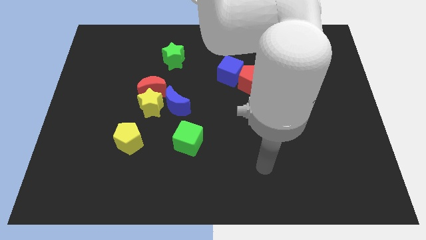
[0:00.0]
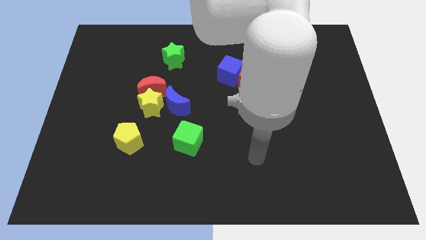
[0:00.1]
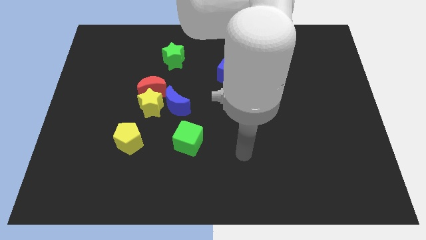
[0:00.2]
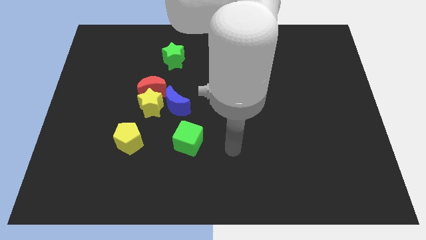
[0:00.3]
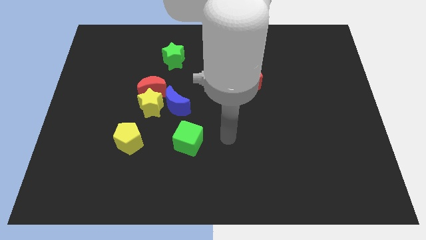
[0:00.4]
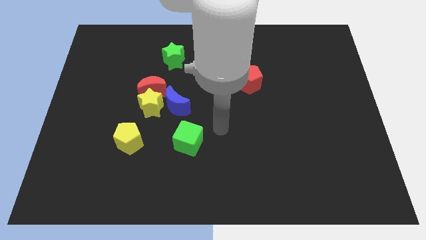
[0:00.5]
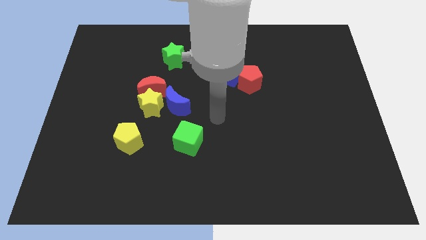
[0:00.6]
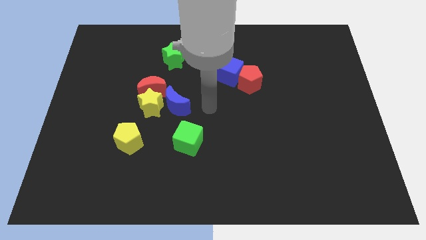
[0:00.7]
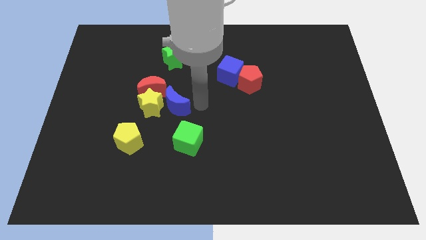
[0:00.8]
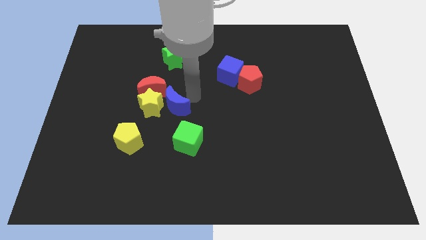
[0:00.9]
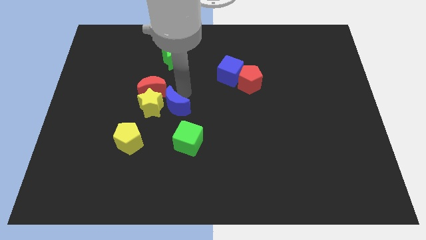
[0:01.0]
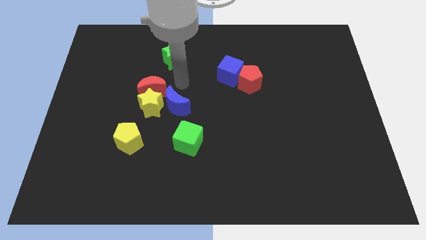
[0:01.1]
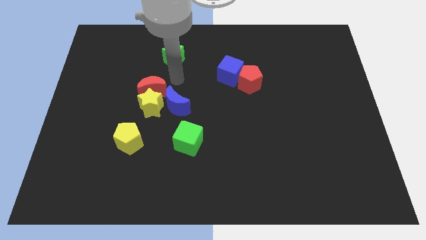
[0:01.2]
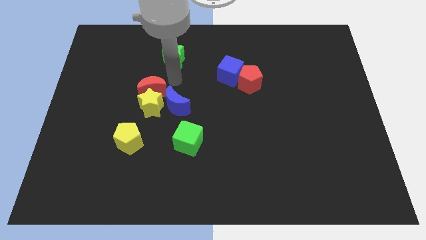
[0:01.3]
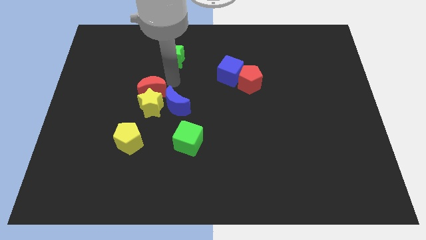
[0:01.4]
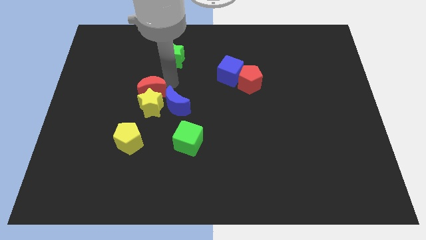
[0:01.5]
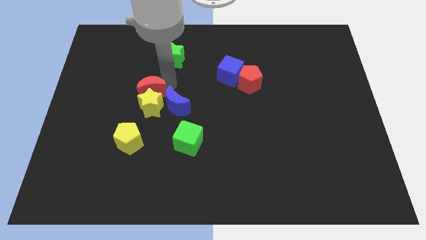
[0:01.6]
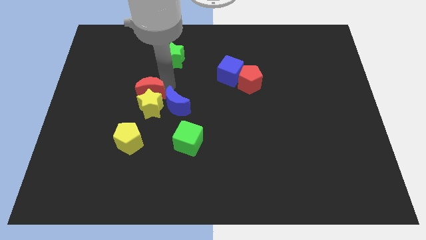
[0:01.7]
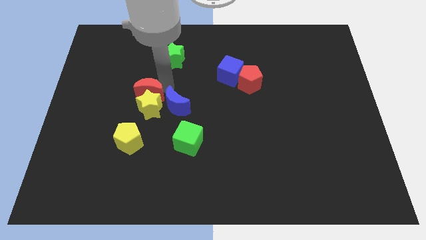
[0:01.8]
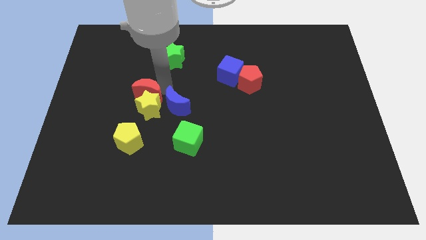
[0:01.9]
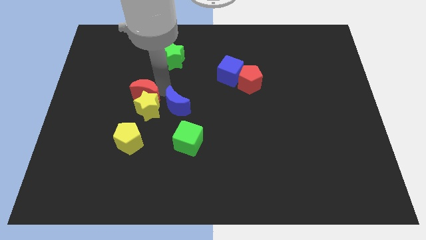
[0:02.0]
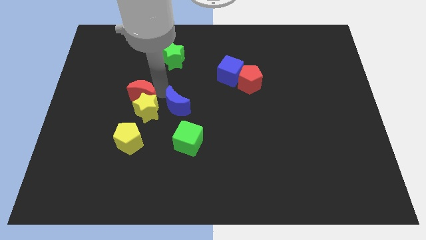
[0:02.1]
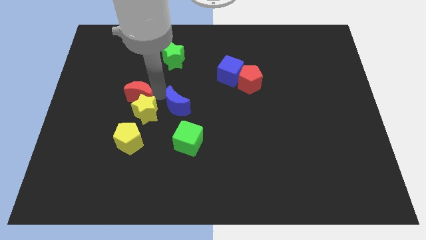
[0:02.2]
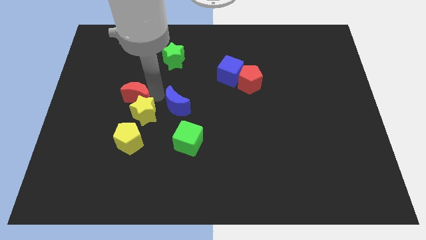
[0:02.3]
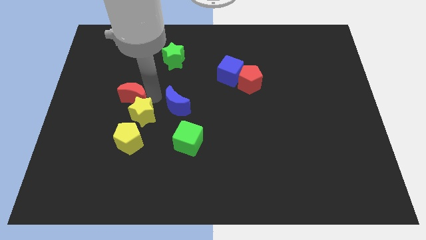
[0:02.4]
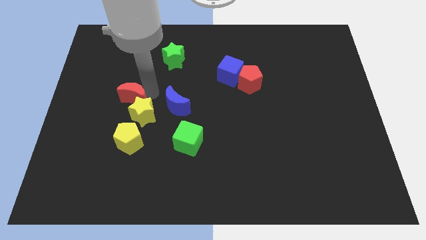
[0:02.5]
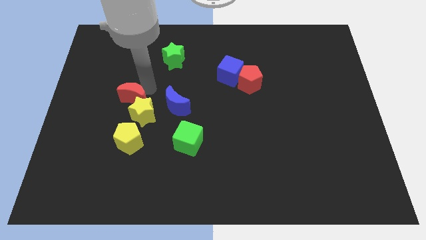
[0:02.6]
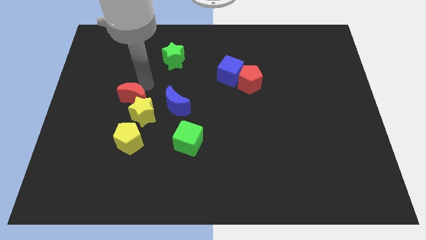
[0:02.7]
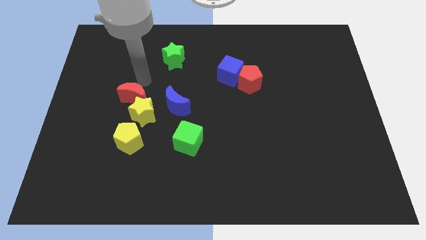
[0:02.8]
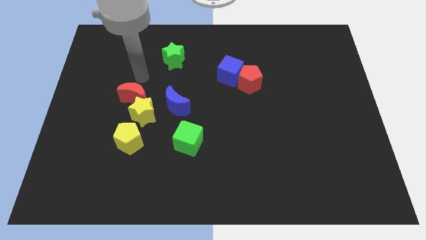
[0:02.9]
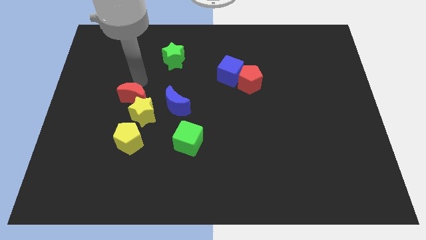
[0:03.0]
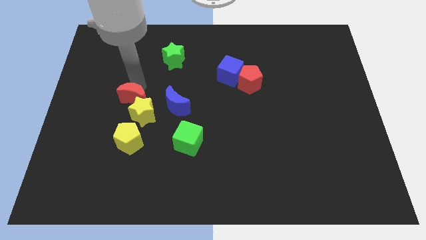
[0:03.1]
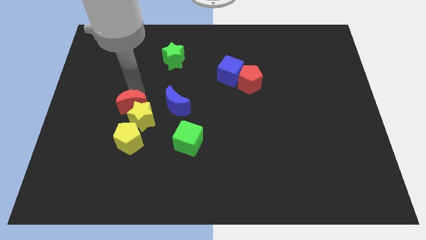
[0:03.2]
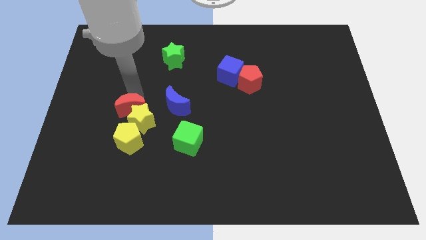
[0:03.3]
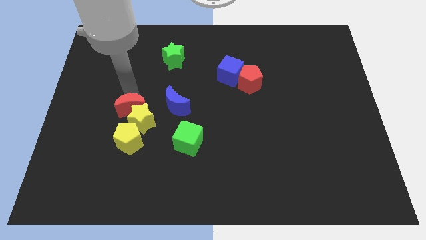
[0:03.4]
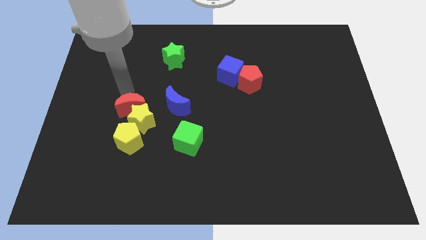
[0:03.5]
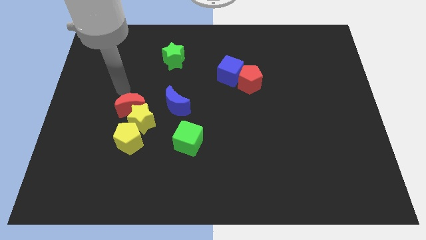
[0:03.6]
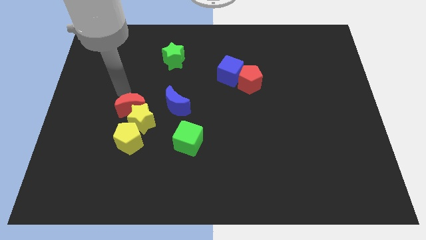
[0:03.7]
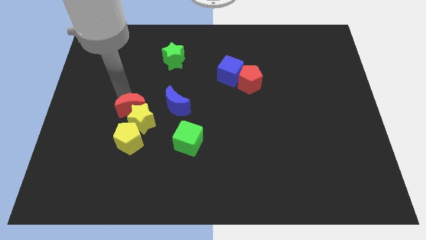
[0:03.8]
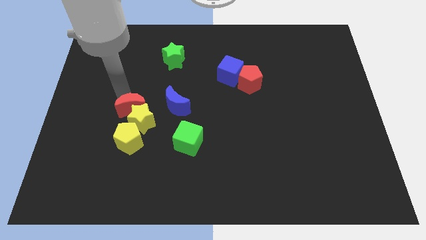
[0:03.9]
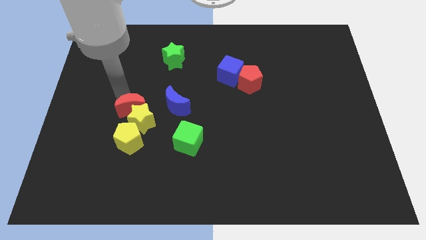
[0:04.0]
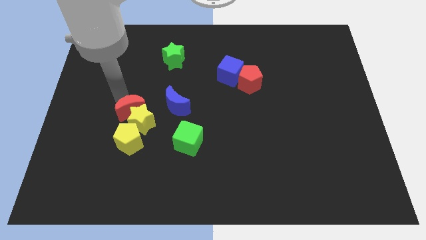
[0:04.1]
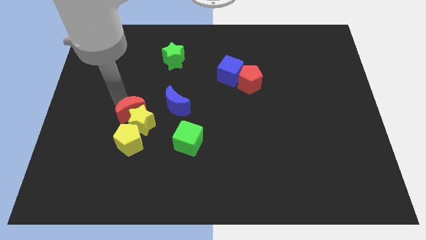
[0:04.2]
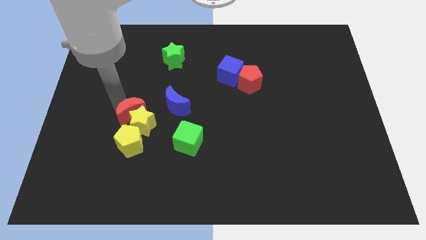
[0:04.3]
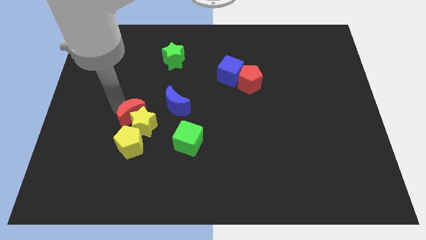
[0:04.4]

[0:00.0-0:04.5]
slightly move the red moon downwards

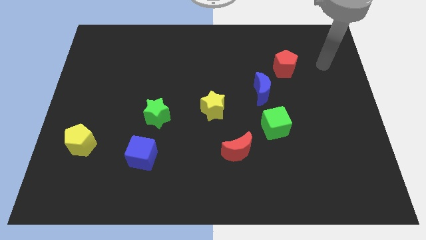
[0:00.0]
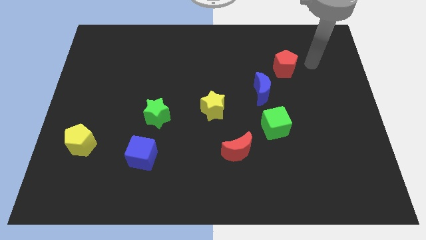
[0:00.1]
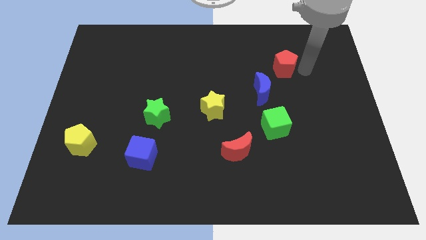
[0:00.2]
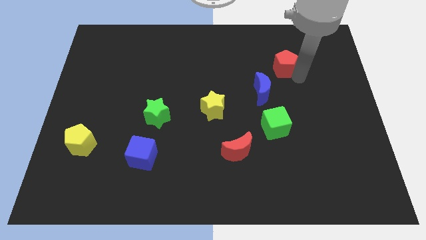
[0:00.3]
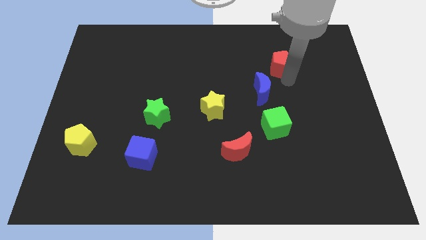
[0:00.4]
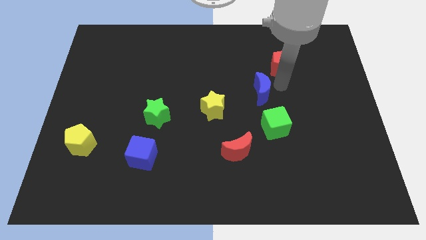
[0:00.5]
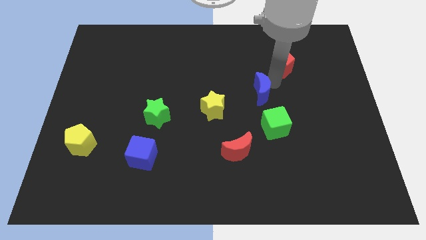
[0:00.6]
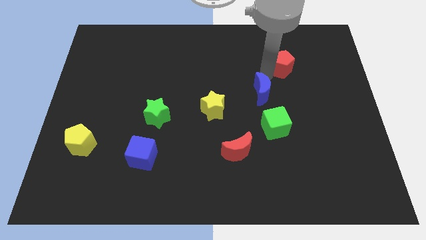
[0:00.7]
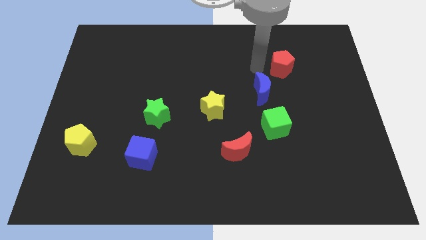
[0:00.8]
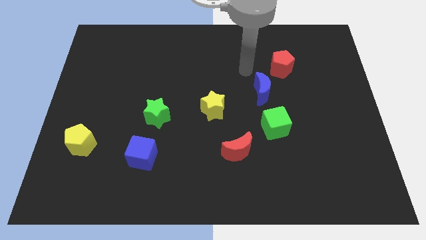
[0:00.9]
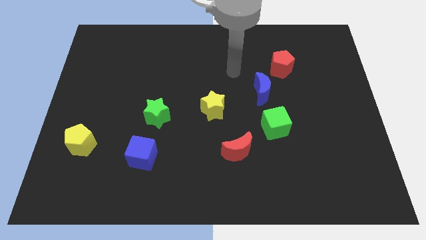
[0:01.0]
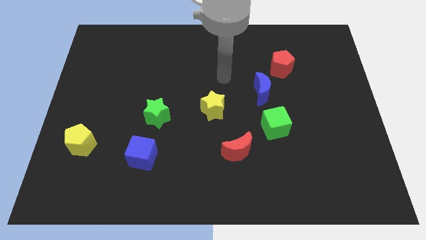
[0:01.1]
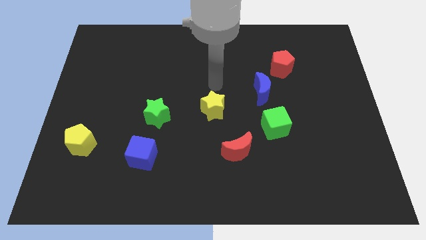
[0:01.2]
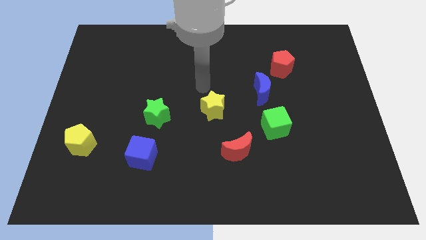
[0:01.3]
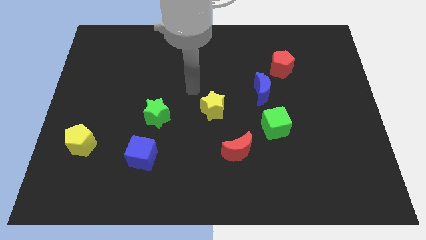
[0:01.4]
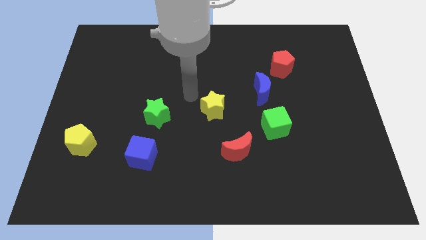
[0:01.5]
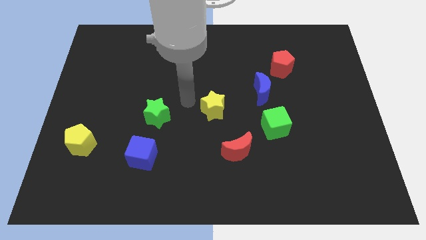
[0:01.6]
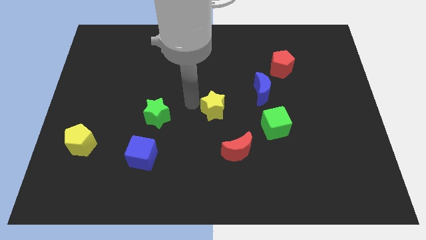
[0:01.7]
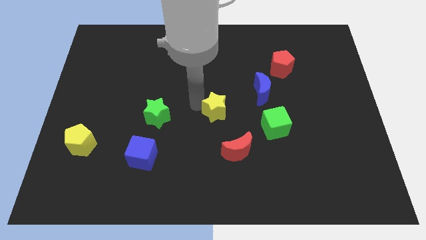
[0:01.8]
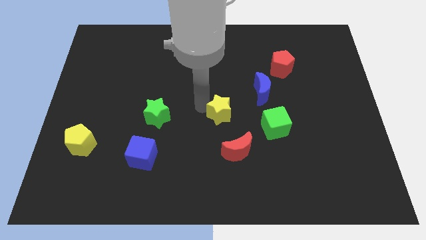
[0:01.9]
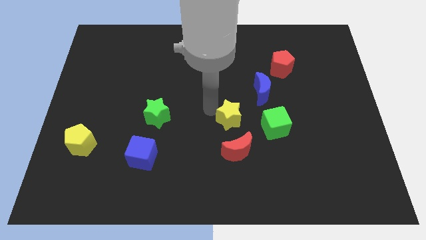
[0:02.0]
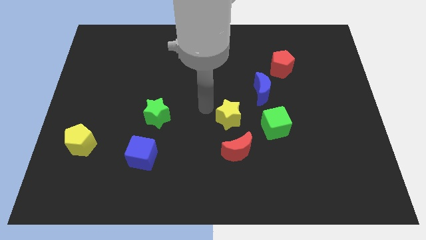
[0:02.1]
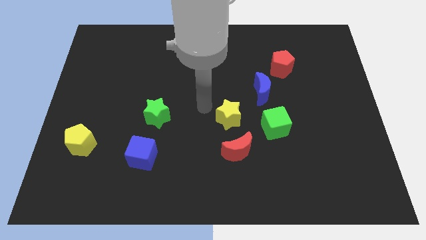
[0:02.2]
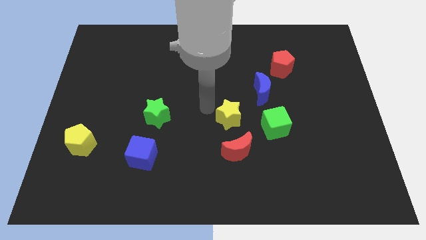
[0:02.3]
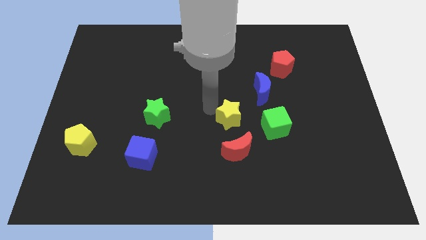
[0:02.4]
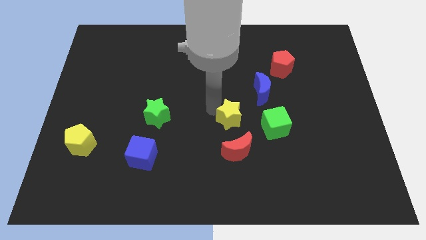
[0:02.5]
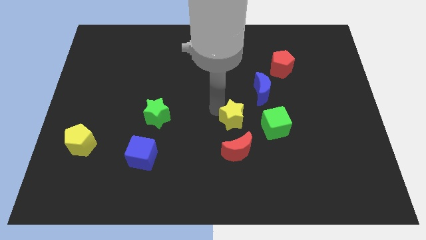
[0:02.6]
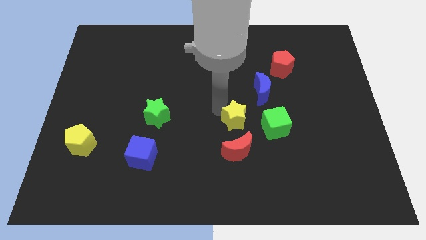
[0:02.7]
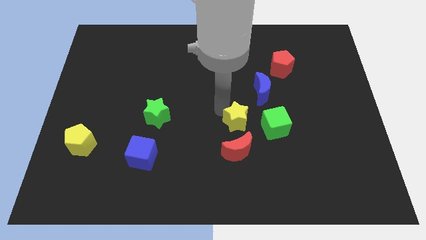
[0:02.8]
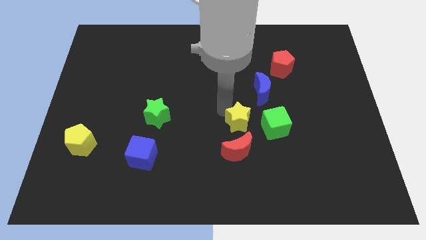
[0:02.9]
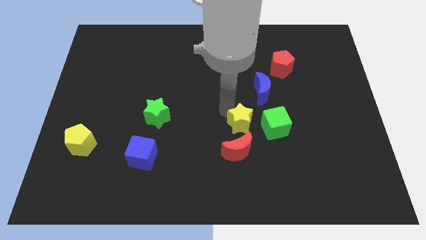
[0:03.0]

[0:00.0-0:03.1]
slide the yellow star a bit diagonally downwards and right

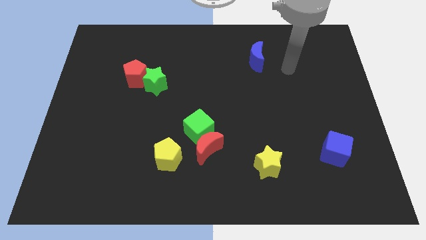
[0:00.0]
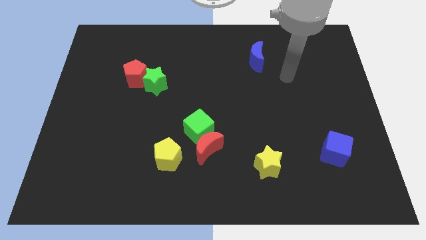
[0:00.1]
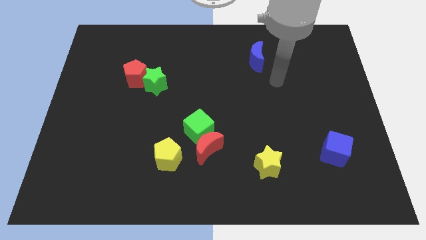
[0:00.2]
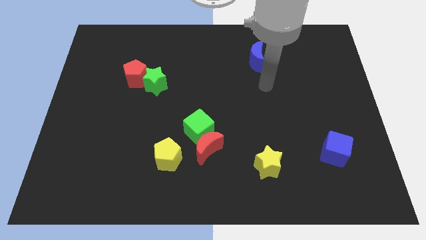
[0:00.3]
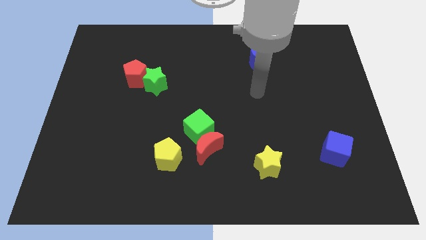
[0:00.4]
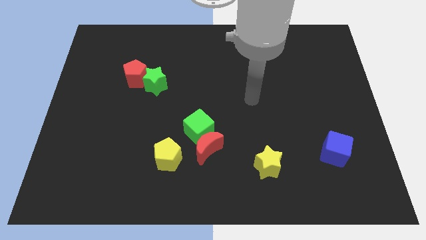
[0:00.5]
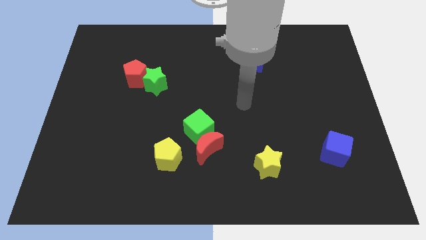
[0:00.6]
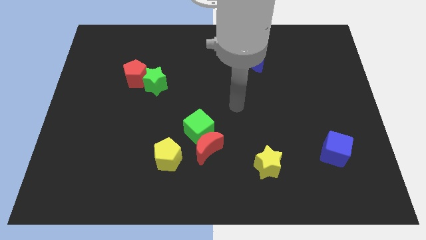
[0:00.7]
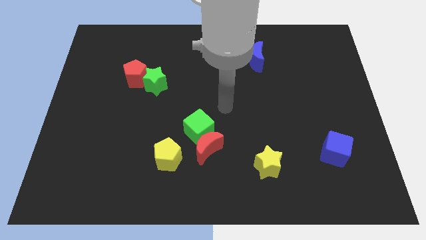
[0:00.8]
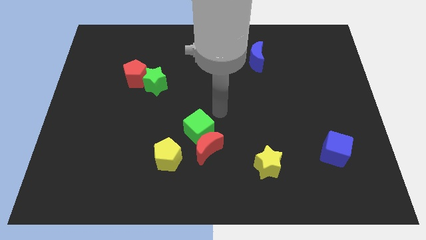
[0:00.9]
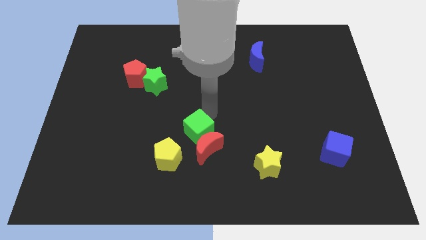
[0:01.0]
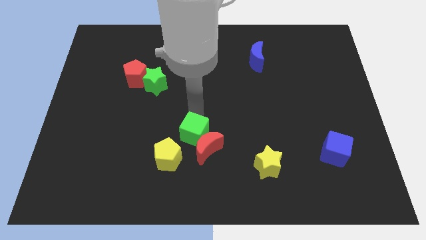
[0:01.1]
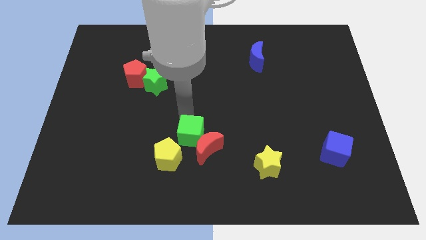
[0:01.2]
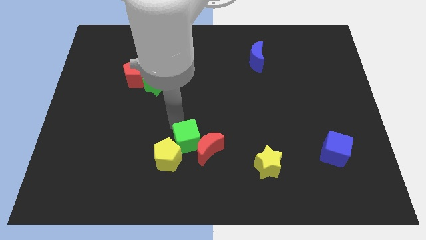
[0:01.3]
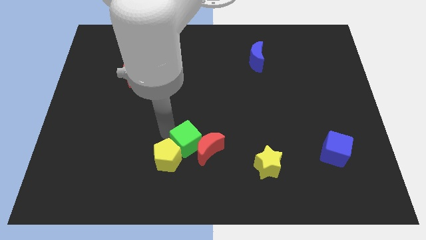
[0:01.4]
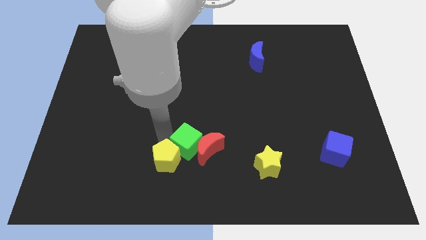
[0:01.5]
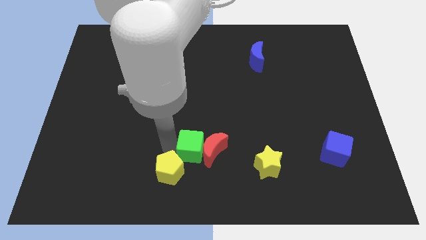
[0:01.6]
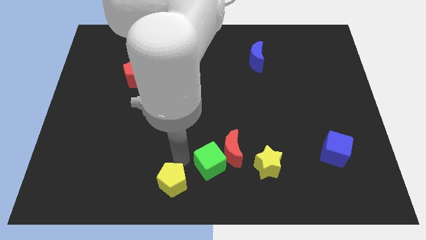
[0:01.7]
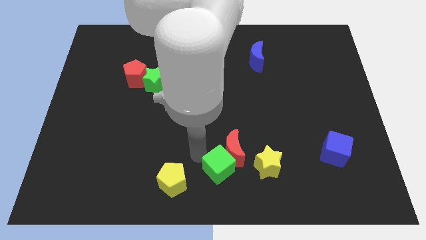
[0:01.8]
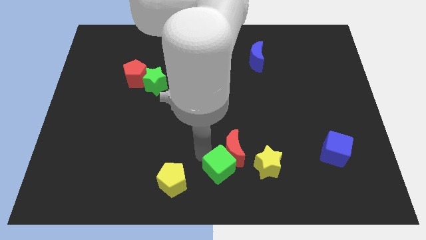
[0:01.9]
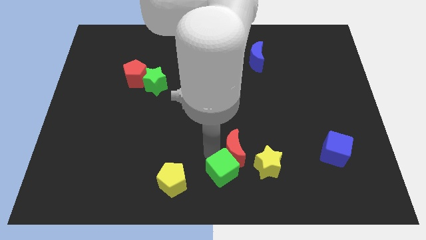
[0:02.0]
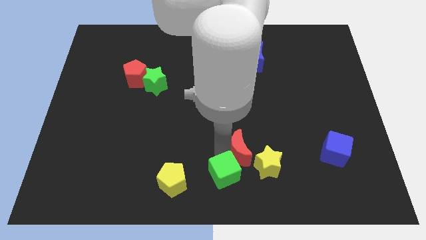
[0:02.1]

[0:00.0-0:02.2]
slide the red moon to the right a little bit
